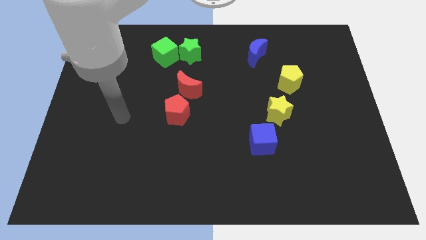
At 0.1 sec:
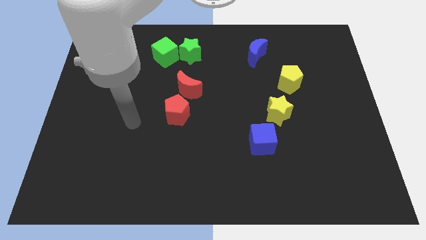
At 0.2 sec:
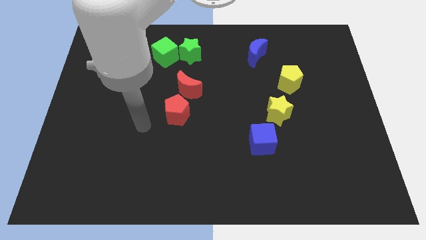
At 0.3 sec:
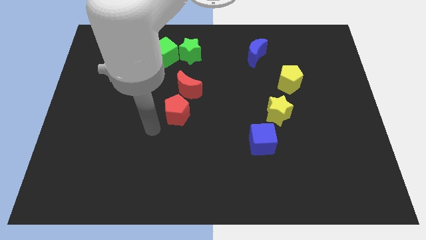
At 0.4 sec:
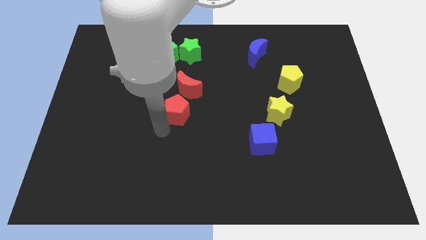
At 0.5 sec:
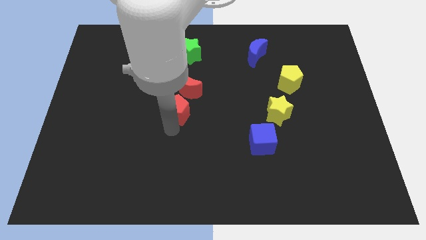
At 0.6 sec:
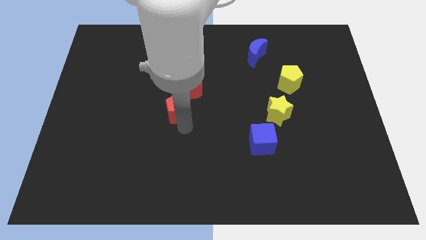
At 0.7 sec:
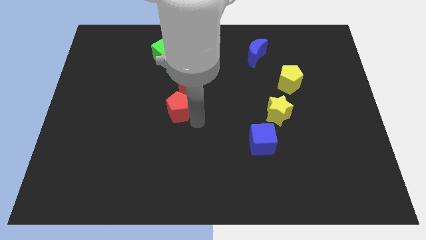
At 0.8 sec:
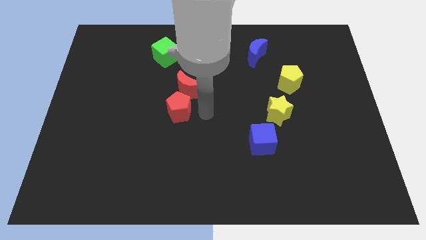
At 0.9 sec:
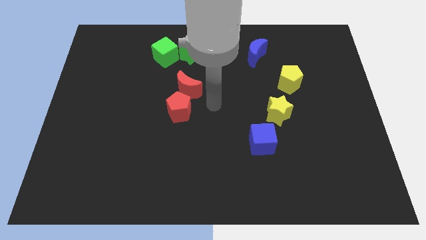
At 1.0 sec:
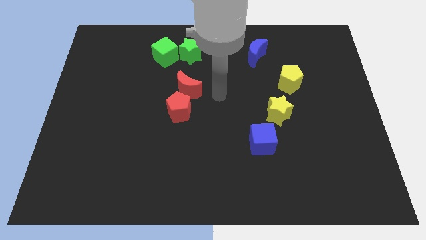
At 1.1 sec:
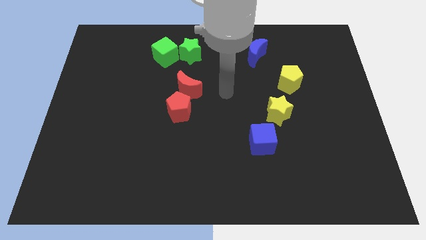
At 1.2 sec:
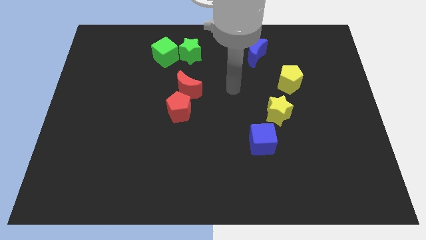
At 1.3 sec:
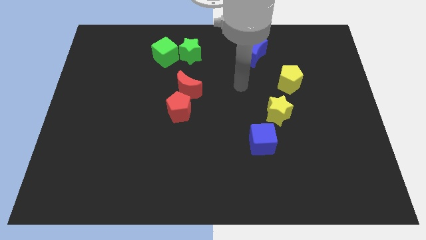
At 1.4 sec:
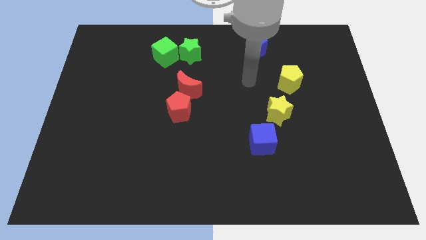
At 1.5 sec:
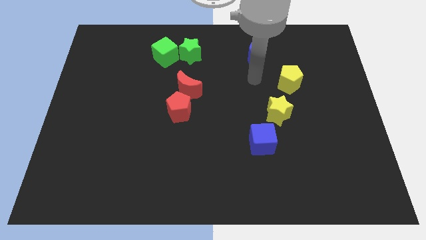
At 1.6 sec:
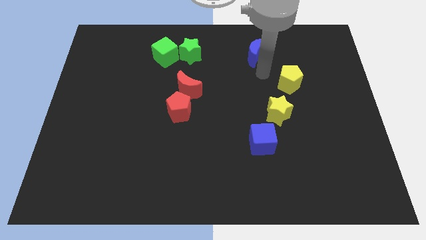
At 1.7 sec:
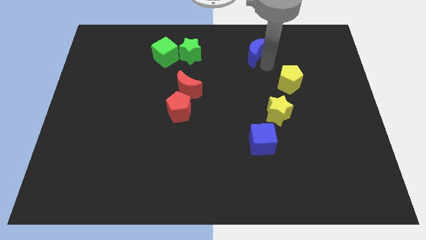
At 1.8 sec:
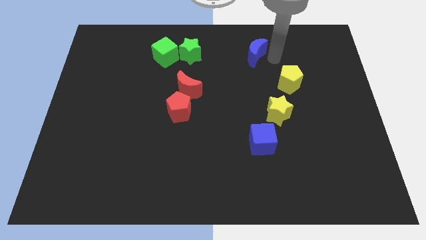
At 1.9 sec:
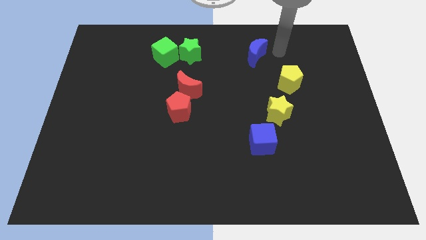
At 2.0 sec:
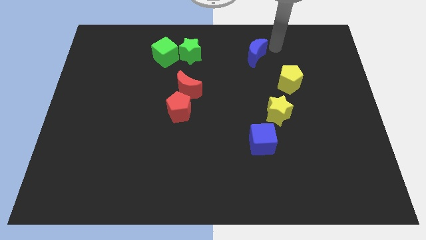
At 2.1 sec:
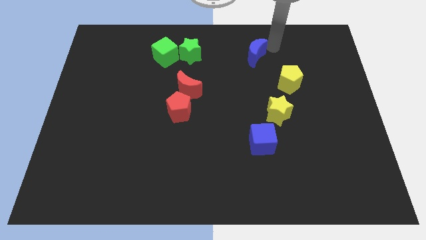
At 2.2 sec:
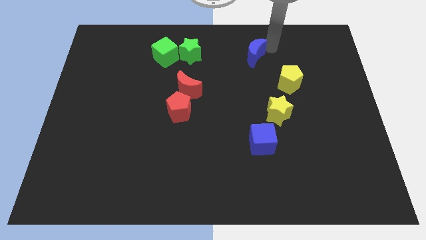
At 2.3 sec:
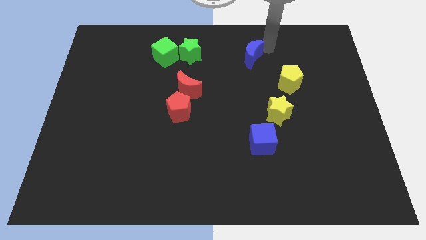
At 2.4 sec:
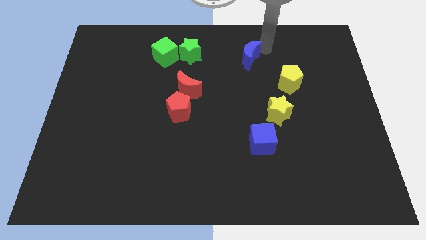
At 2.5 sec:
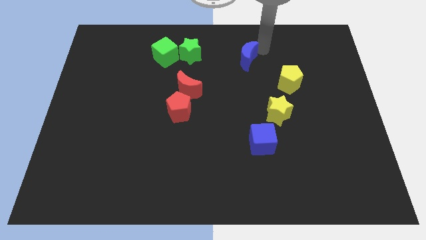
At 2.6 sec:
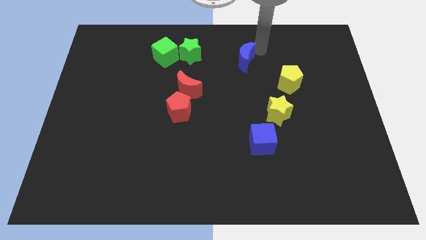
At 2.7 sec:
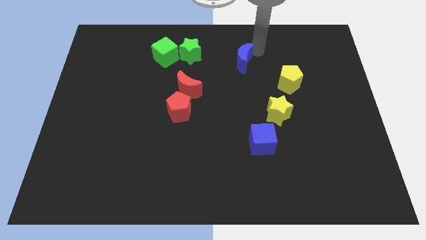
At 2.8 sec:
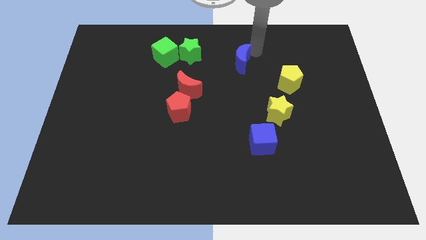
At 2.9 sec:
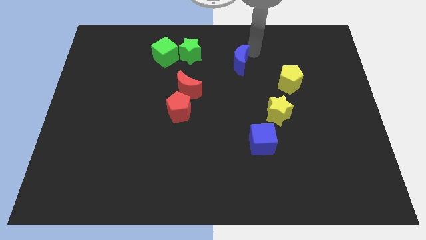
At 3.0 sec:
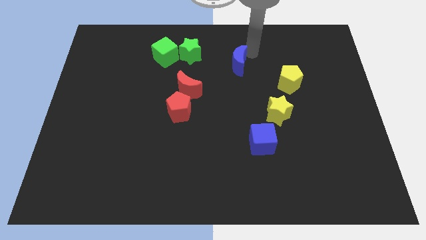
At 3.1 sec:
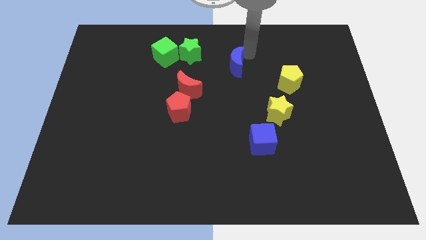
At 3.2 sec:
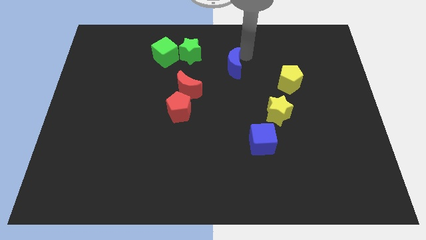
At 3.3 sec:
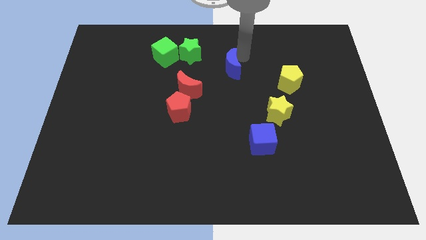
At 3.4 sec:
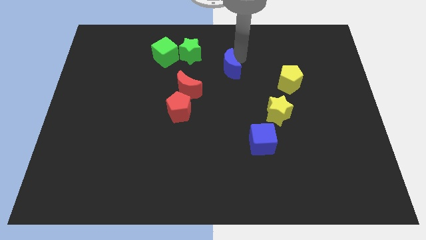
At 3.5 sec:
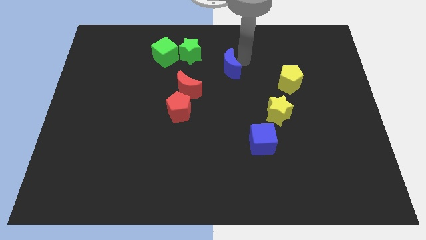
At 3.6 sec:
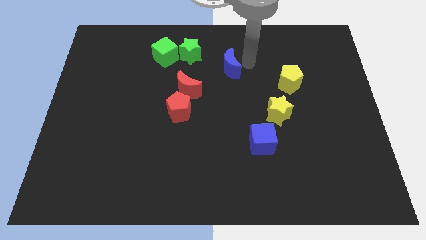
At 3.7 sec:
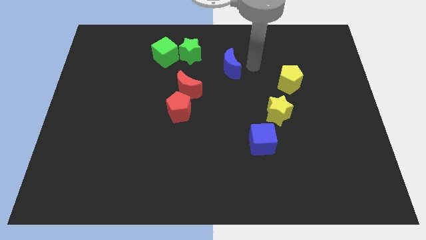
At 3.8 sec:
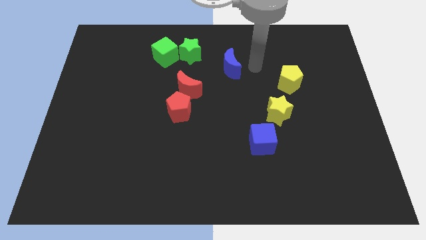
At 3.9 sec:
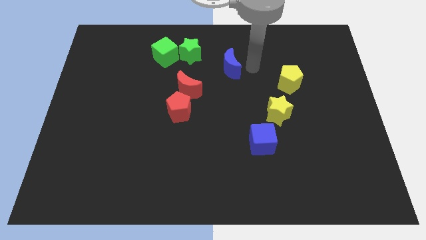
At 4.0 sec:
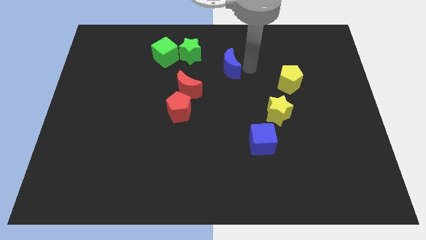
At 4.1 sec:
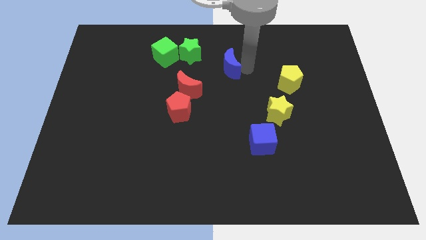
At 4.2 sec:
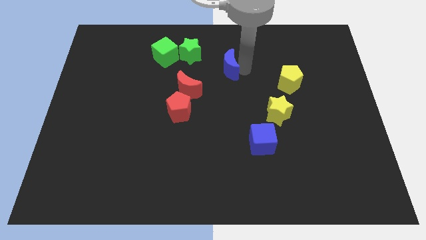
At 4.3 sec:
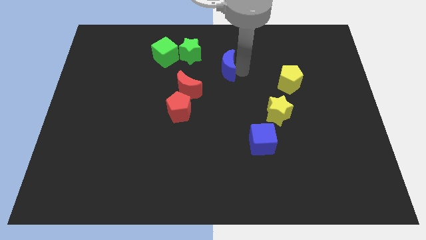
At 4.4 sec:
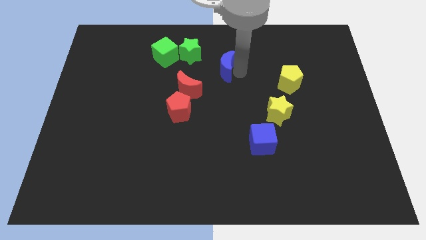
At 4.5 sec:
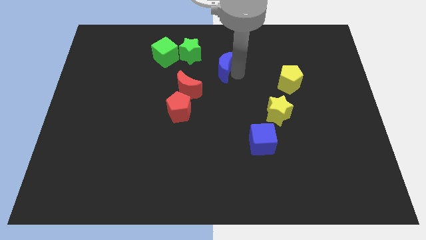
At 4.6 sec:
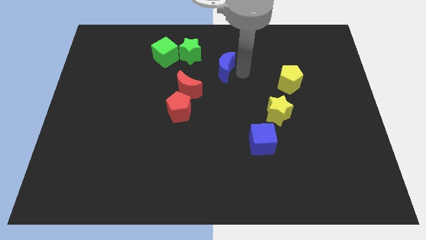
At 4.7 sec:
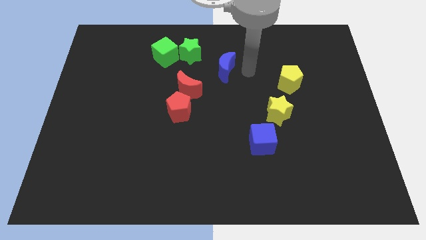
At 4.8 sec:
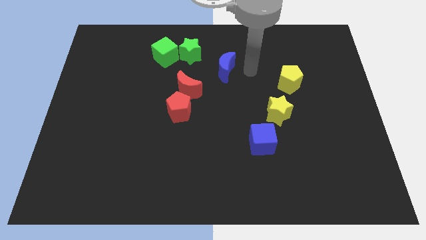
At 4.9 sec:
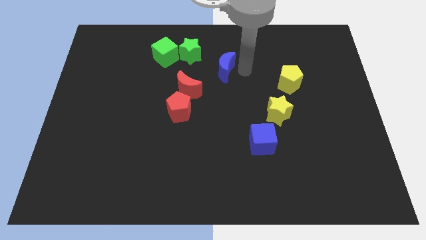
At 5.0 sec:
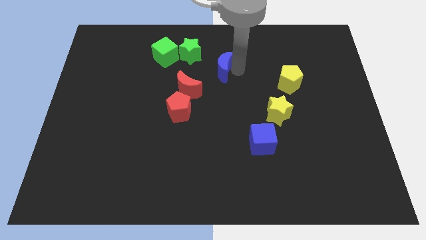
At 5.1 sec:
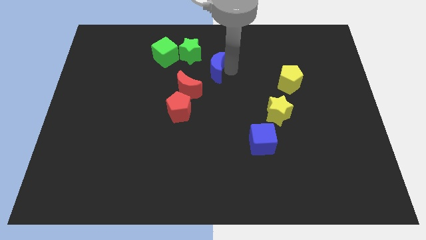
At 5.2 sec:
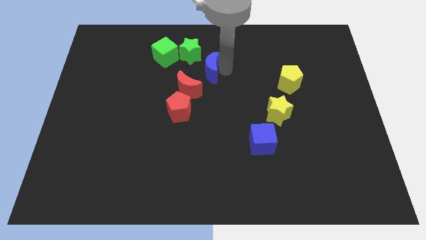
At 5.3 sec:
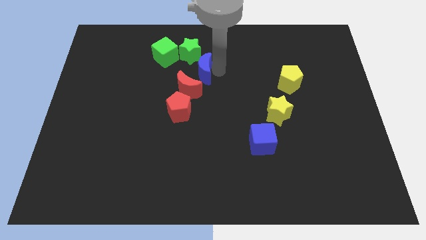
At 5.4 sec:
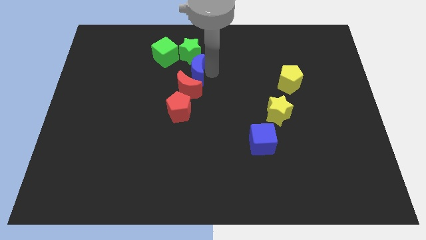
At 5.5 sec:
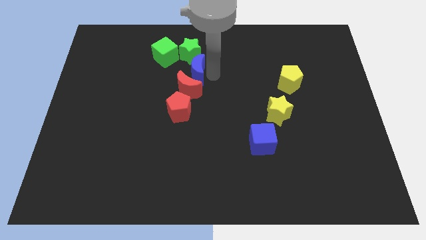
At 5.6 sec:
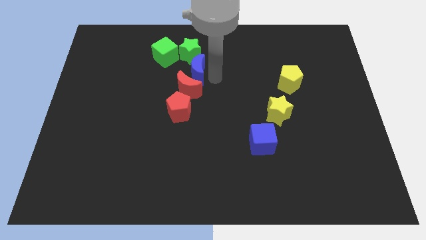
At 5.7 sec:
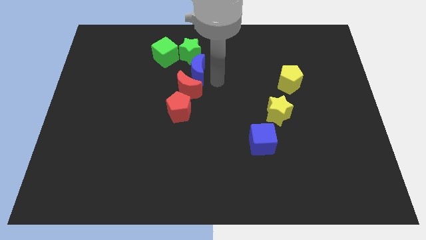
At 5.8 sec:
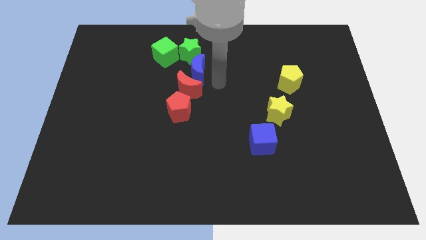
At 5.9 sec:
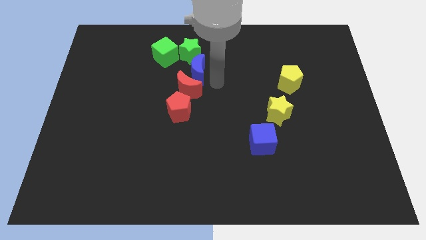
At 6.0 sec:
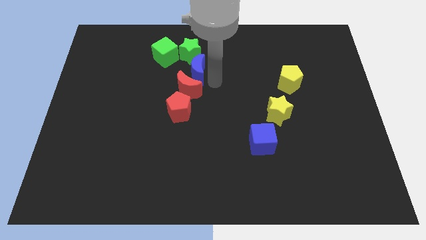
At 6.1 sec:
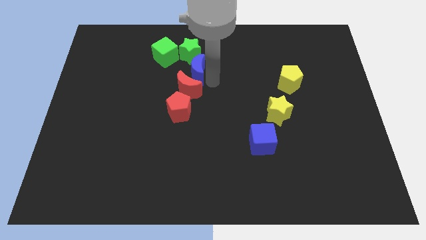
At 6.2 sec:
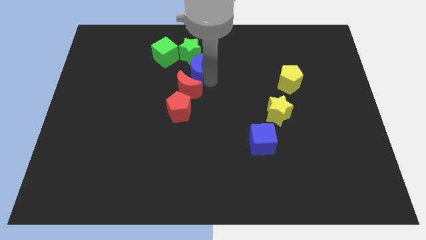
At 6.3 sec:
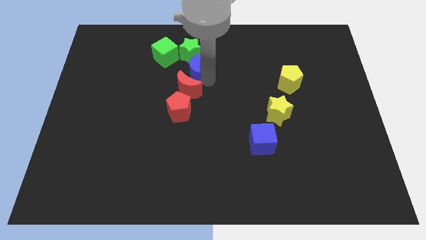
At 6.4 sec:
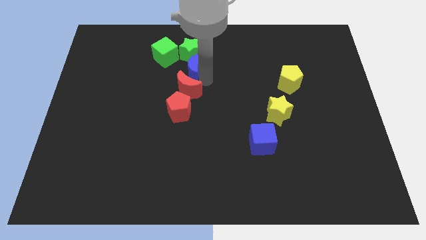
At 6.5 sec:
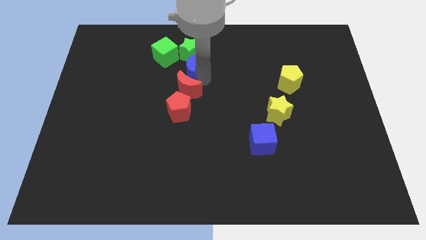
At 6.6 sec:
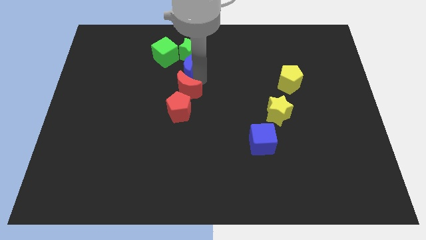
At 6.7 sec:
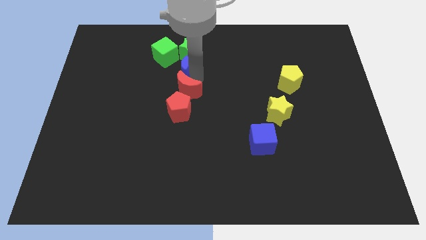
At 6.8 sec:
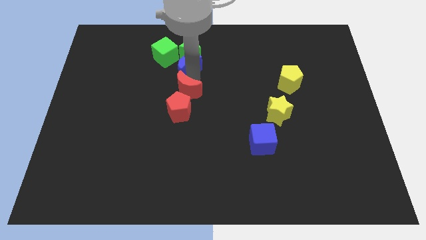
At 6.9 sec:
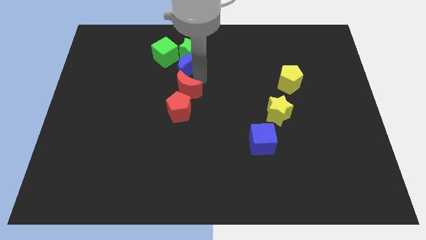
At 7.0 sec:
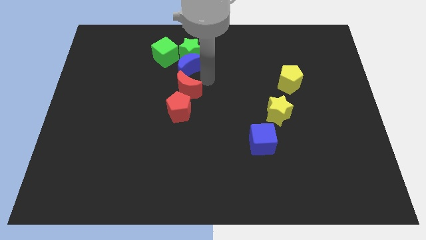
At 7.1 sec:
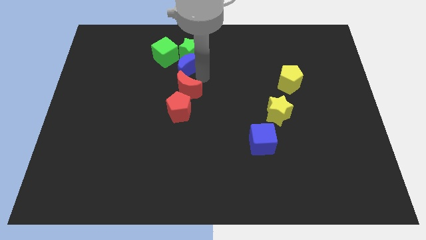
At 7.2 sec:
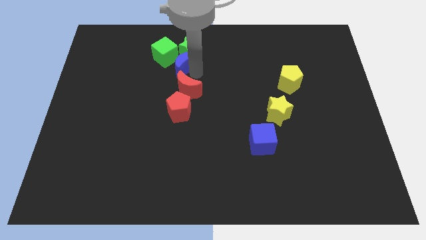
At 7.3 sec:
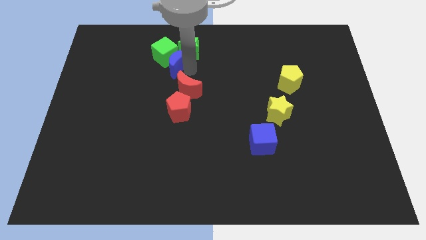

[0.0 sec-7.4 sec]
slide the blue moon next to the green cube
